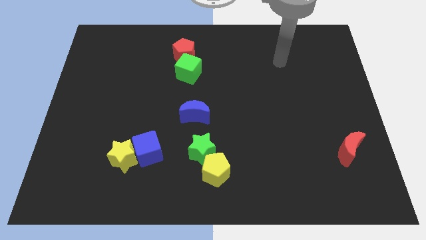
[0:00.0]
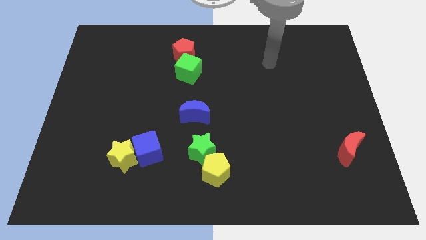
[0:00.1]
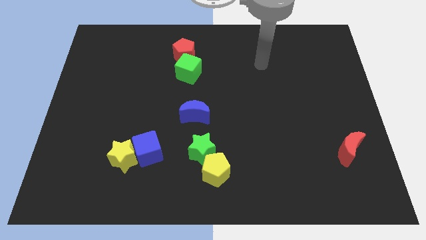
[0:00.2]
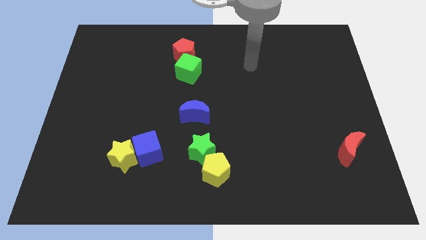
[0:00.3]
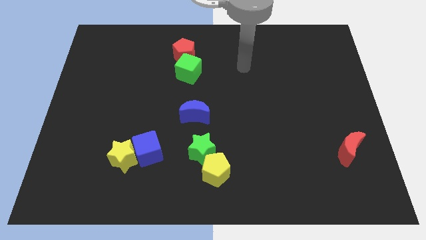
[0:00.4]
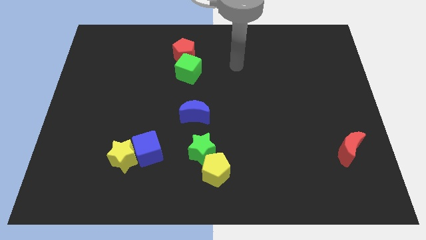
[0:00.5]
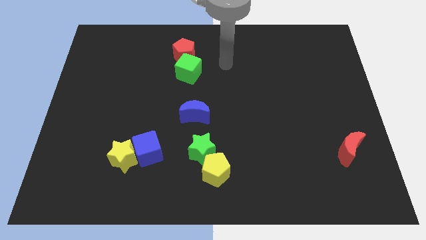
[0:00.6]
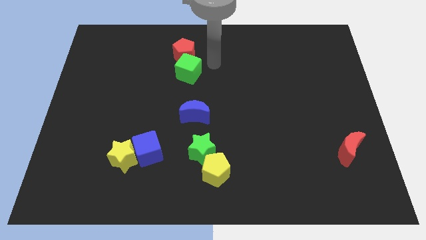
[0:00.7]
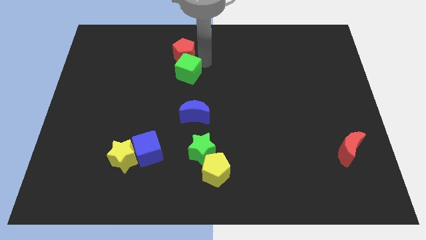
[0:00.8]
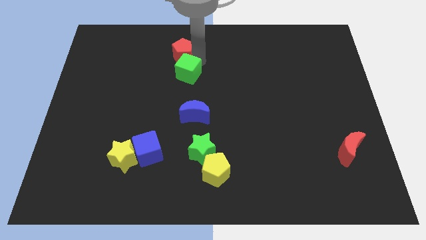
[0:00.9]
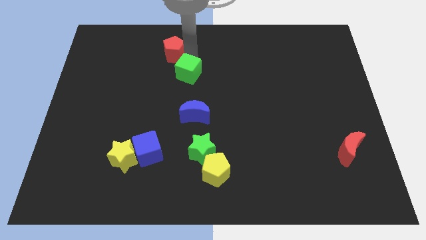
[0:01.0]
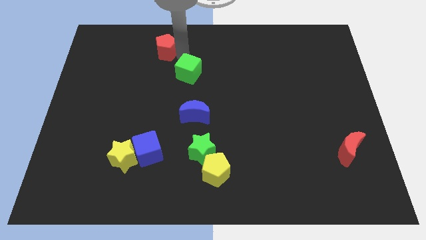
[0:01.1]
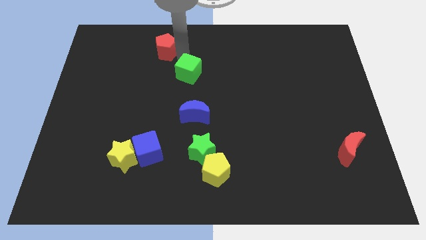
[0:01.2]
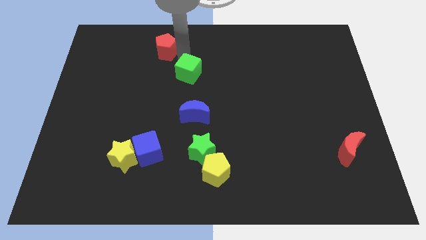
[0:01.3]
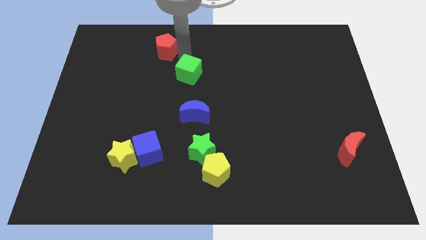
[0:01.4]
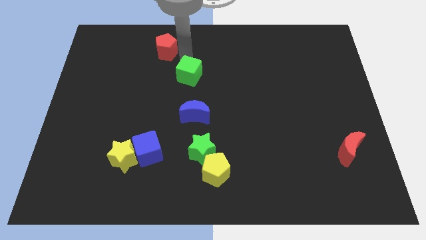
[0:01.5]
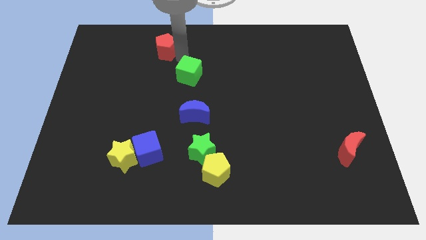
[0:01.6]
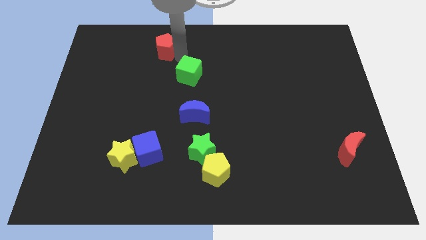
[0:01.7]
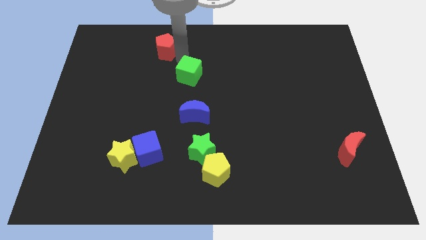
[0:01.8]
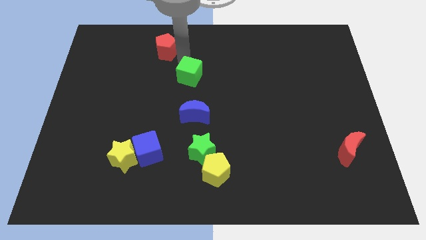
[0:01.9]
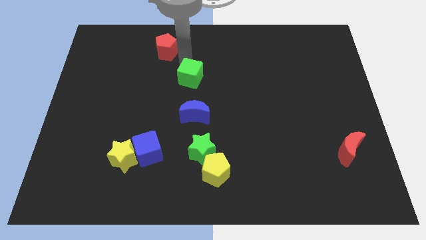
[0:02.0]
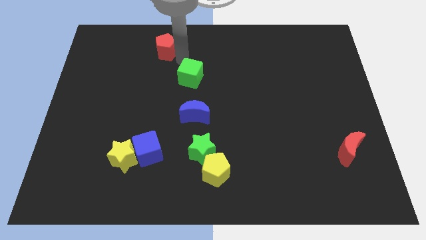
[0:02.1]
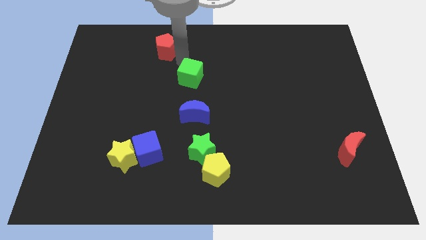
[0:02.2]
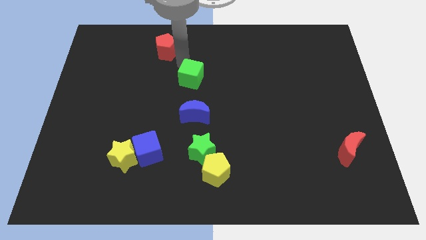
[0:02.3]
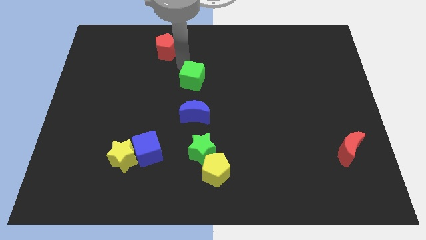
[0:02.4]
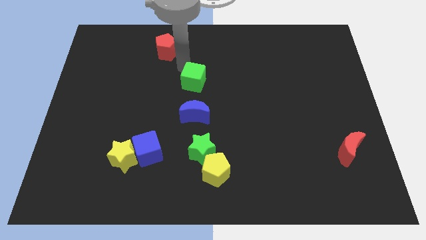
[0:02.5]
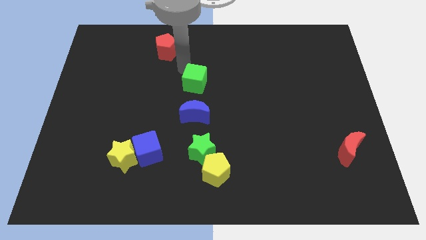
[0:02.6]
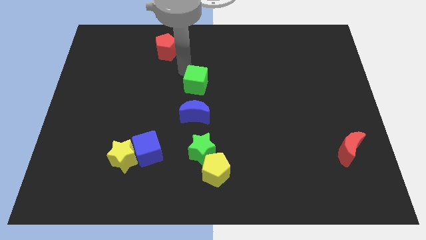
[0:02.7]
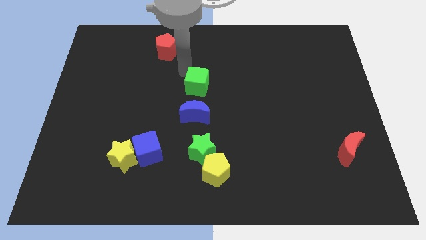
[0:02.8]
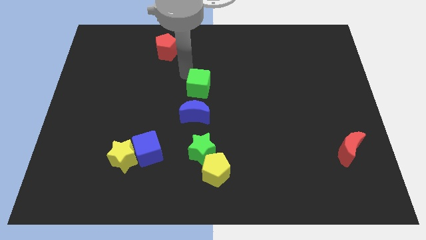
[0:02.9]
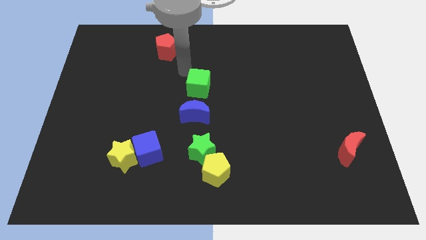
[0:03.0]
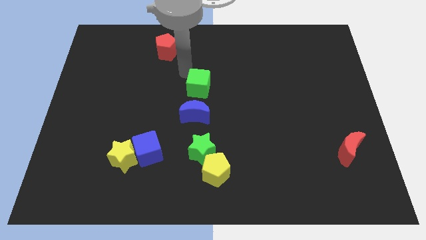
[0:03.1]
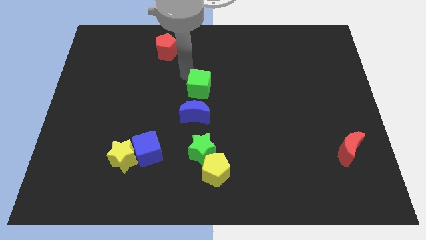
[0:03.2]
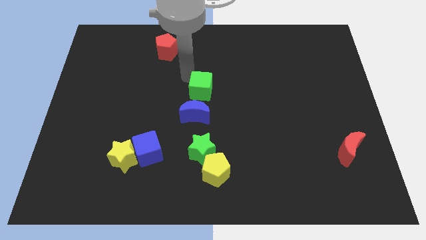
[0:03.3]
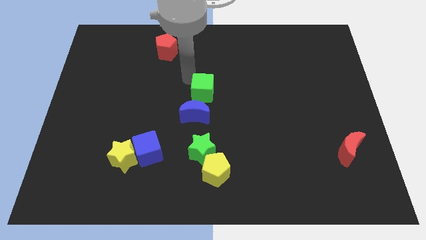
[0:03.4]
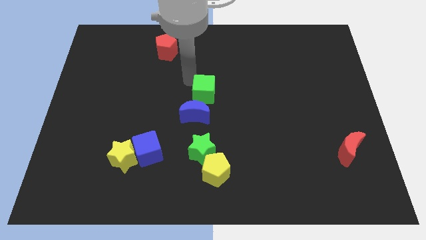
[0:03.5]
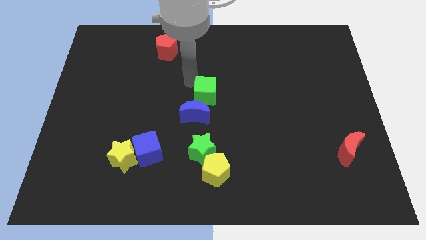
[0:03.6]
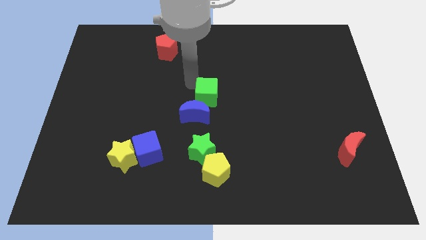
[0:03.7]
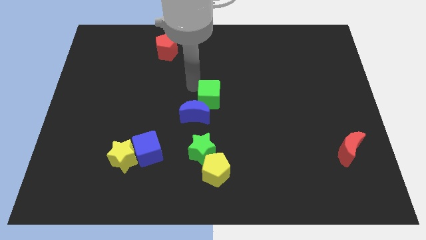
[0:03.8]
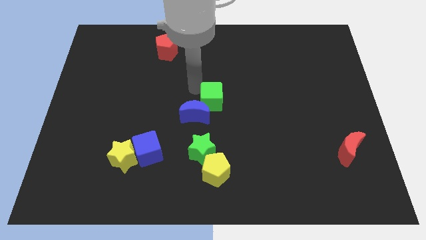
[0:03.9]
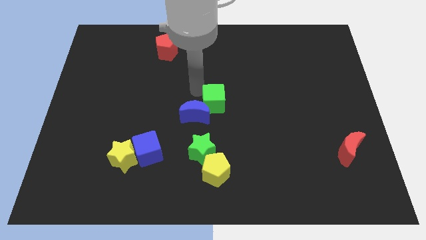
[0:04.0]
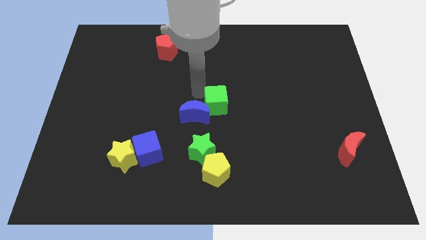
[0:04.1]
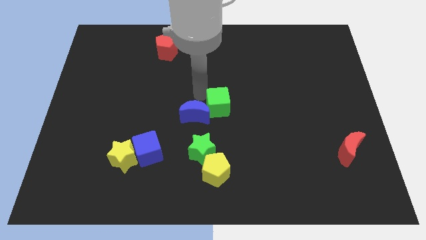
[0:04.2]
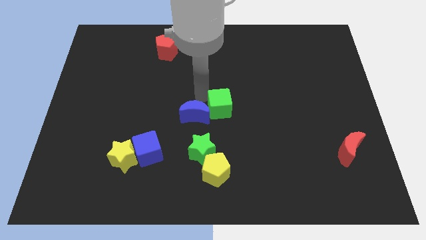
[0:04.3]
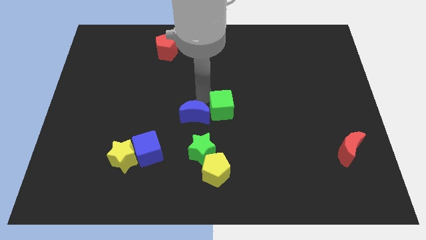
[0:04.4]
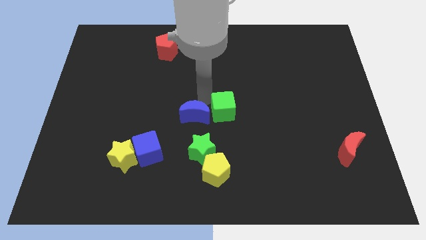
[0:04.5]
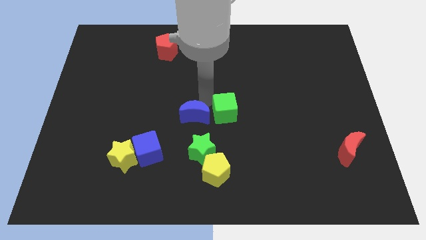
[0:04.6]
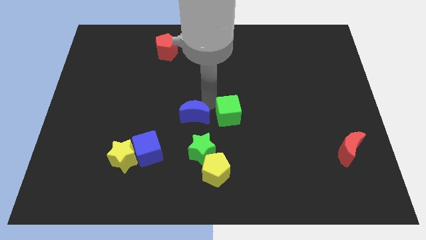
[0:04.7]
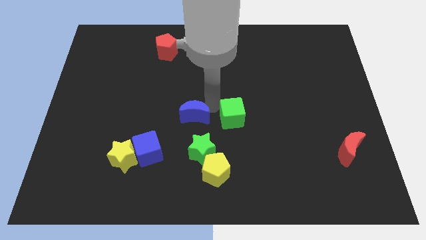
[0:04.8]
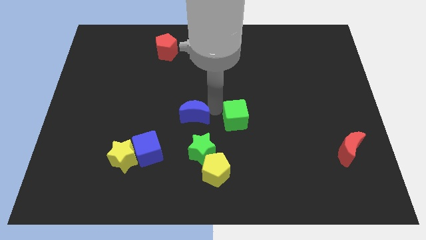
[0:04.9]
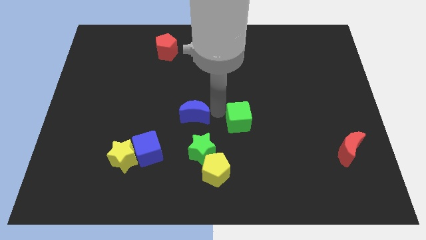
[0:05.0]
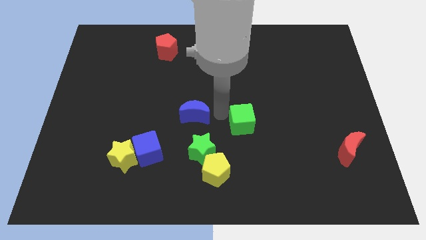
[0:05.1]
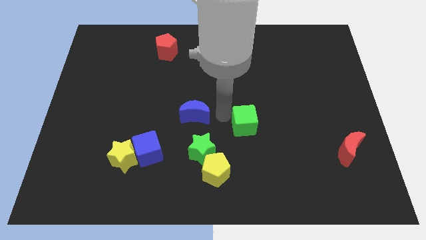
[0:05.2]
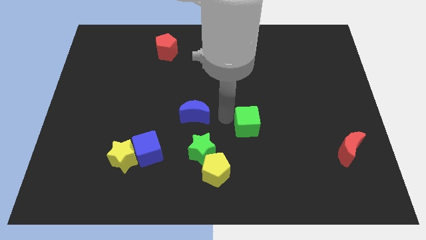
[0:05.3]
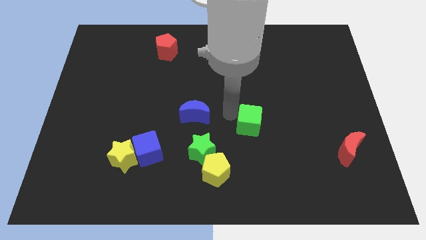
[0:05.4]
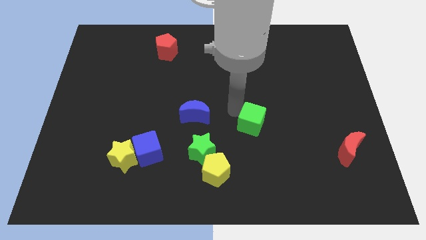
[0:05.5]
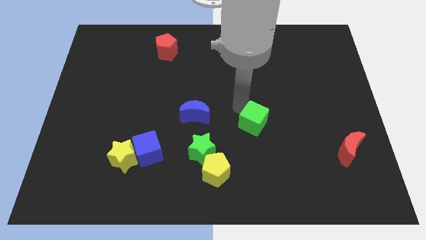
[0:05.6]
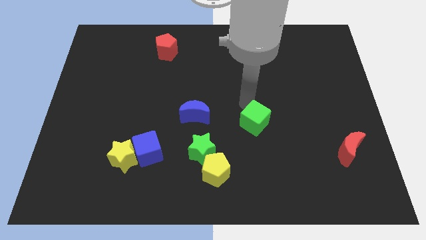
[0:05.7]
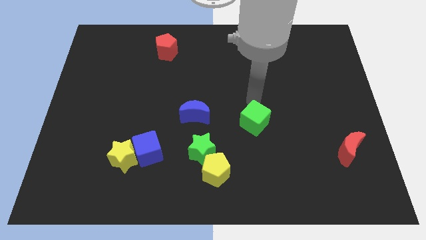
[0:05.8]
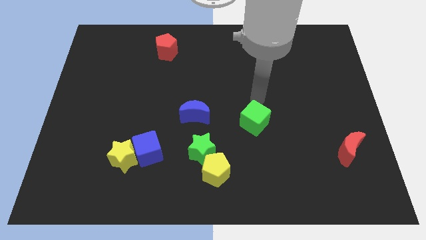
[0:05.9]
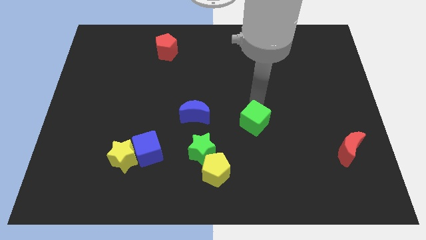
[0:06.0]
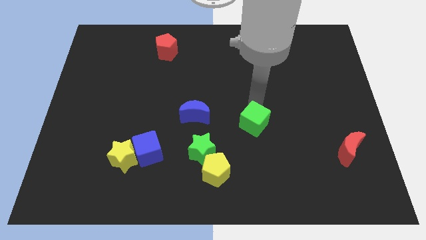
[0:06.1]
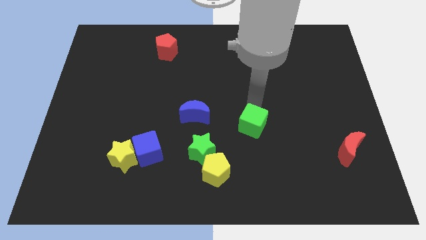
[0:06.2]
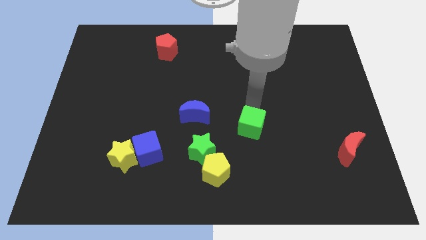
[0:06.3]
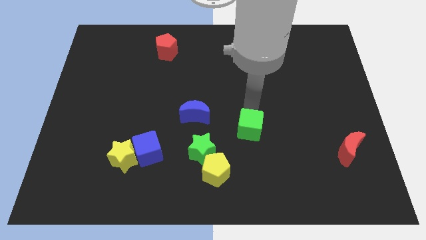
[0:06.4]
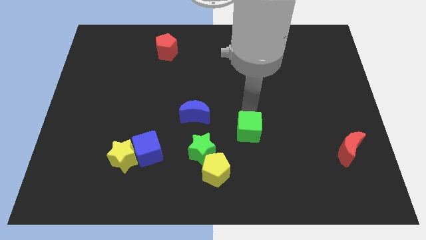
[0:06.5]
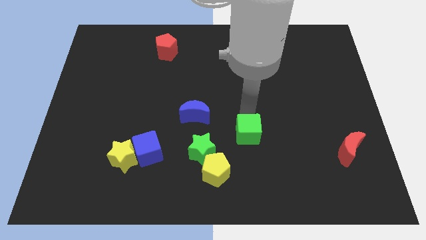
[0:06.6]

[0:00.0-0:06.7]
move the green cube to the right side of the green star
